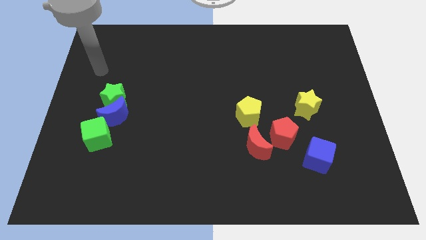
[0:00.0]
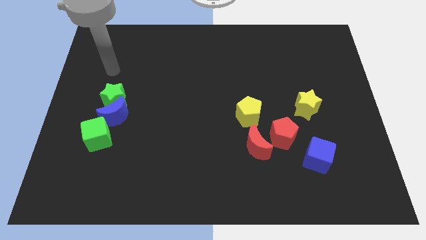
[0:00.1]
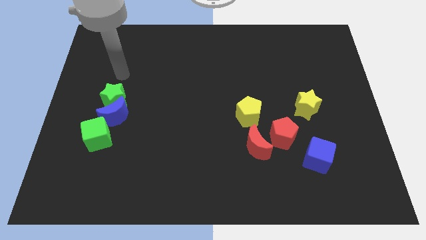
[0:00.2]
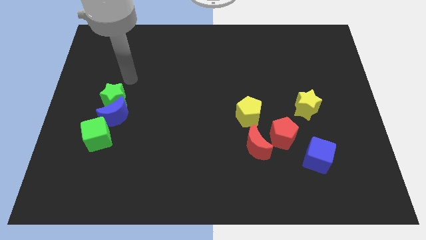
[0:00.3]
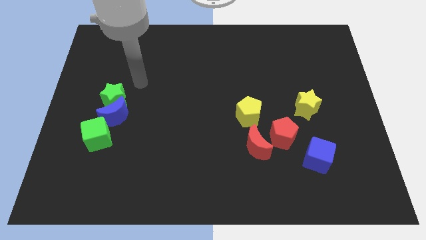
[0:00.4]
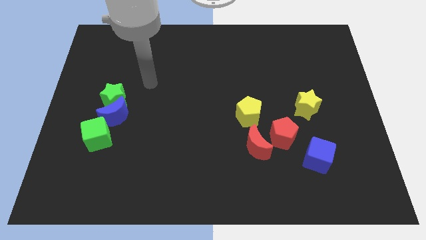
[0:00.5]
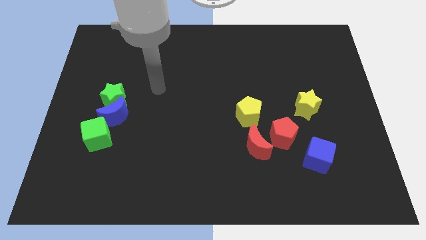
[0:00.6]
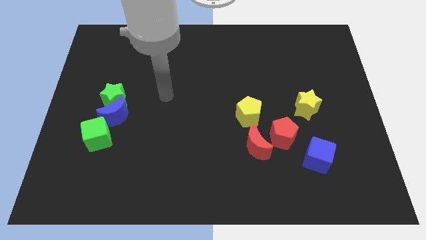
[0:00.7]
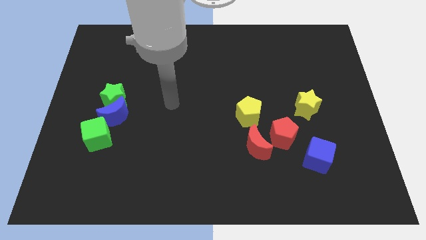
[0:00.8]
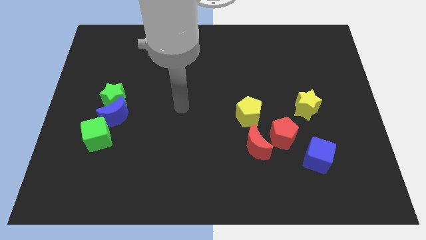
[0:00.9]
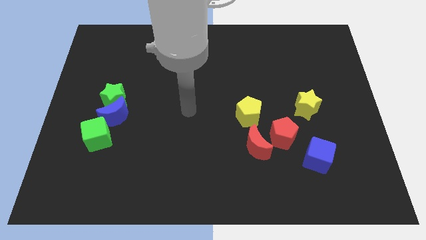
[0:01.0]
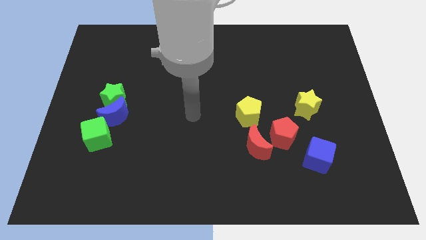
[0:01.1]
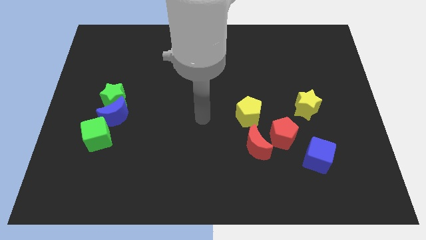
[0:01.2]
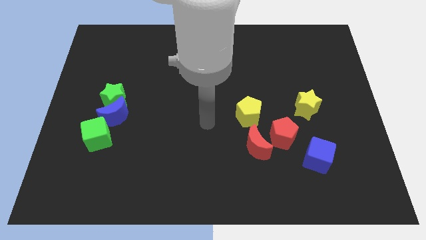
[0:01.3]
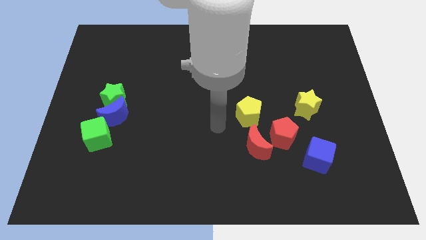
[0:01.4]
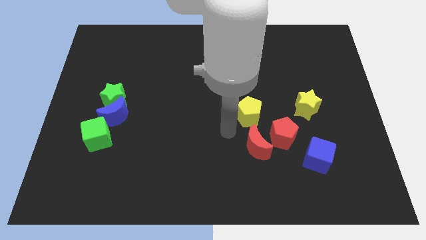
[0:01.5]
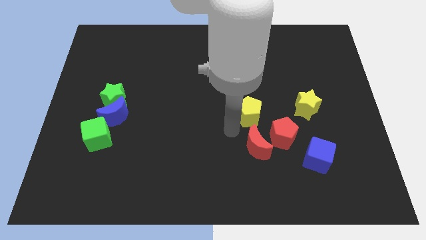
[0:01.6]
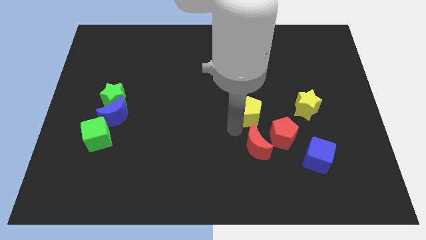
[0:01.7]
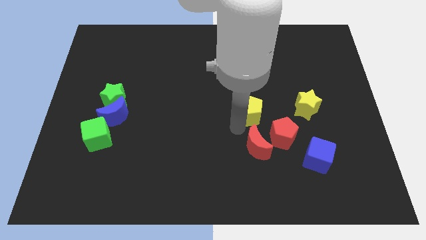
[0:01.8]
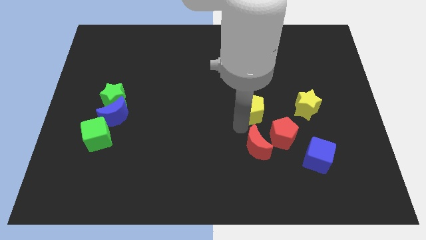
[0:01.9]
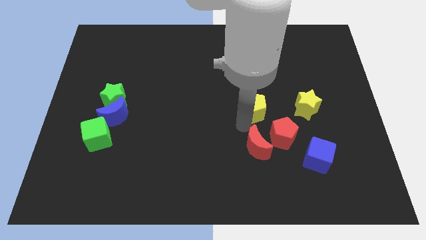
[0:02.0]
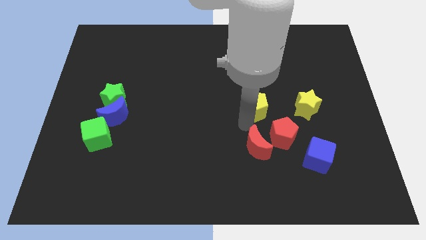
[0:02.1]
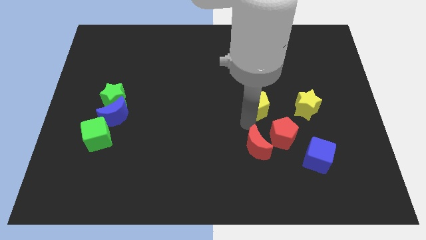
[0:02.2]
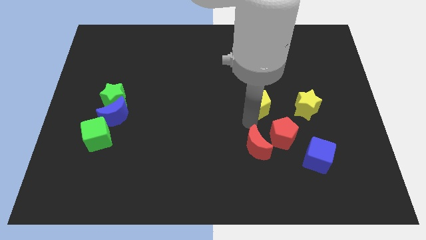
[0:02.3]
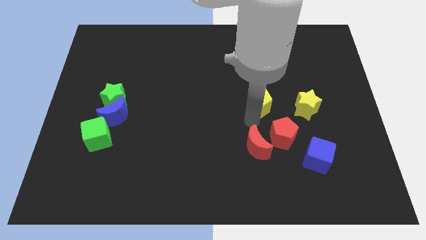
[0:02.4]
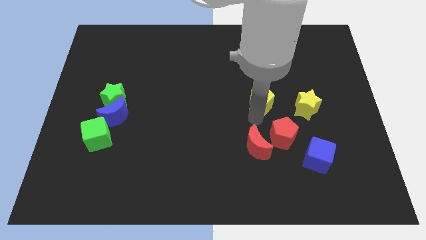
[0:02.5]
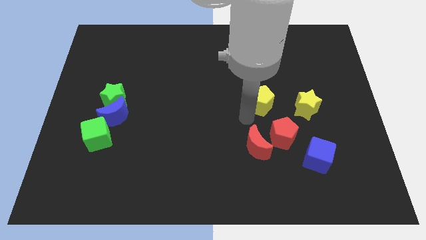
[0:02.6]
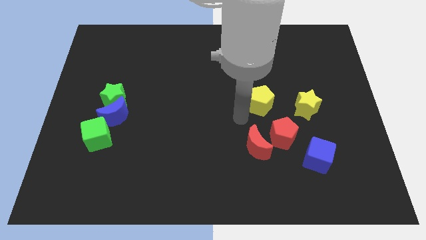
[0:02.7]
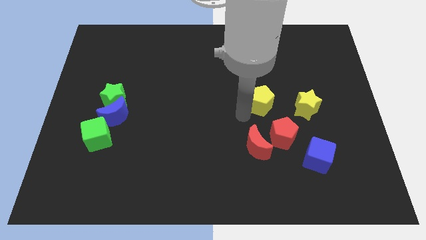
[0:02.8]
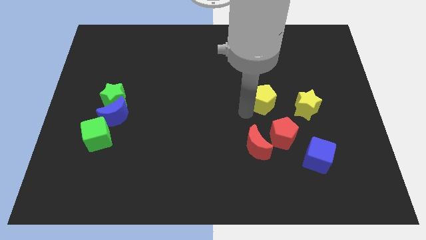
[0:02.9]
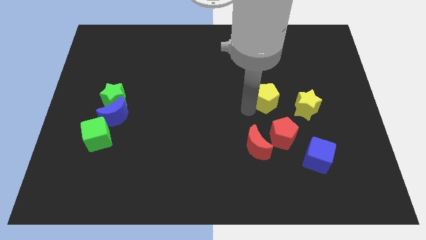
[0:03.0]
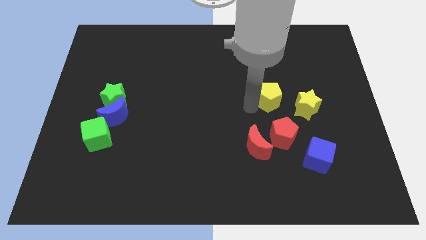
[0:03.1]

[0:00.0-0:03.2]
slightly move the yellow pentagon upwards and right diagonally

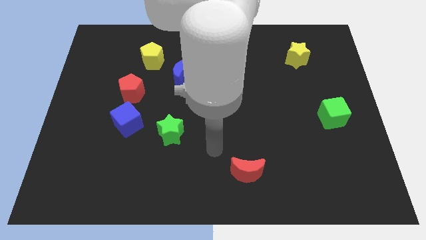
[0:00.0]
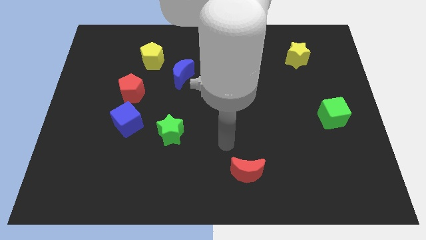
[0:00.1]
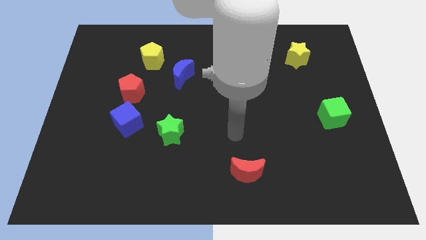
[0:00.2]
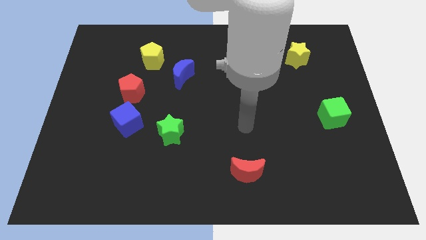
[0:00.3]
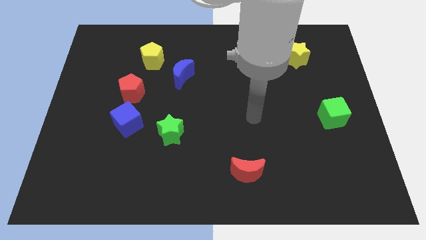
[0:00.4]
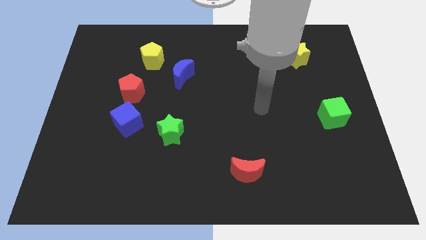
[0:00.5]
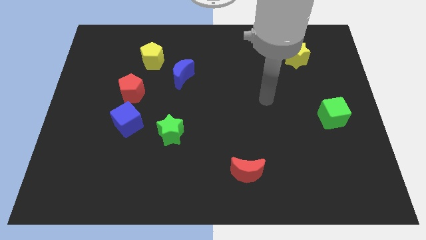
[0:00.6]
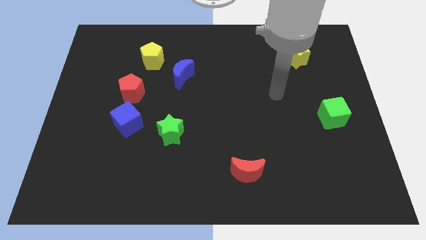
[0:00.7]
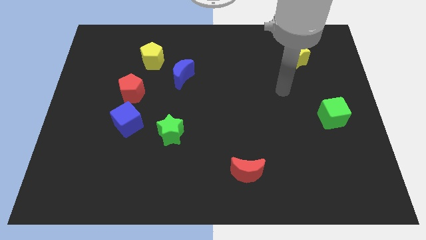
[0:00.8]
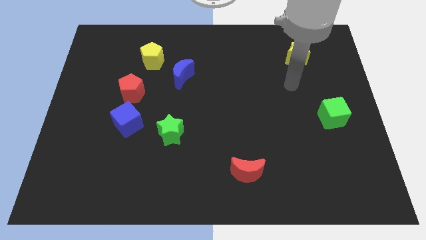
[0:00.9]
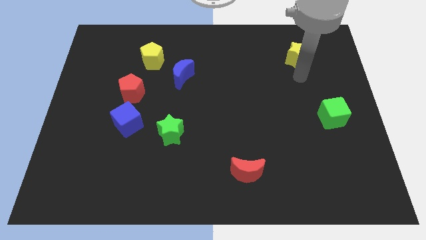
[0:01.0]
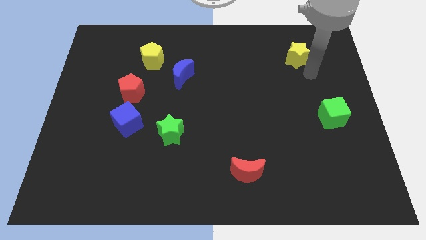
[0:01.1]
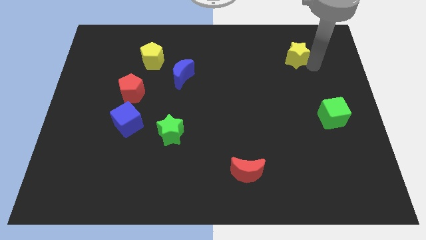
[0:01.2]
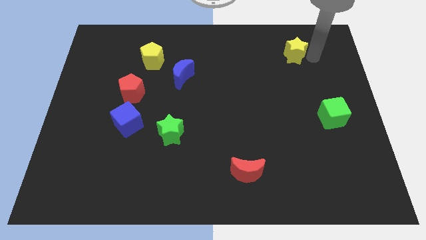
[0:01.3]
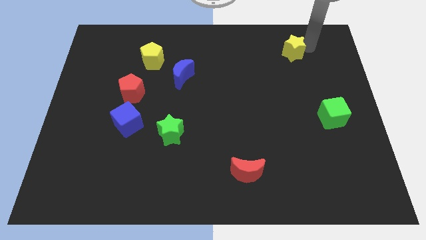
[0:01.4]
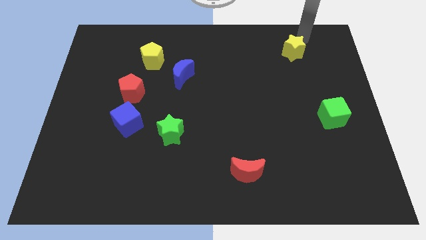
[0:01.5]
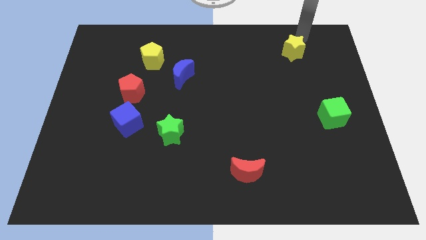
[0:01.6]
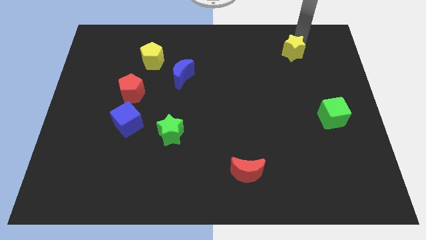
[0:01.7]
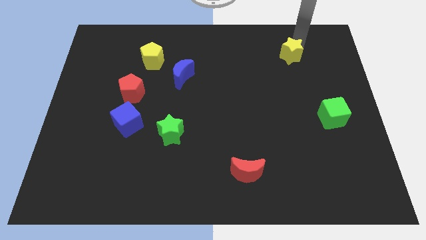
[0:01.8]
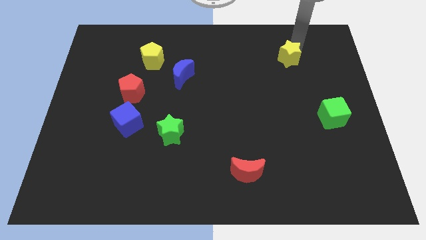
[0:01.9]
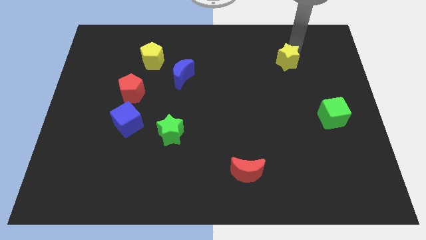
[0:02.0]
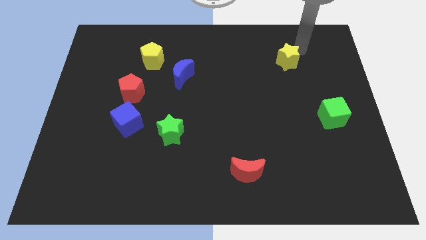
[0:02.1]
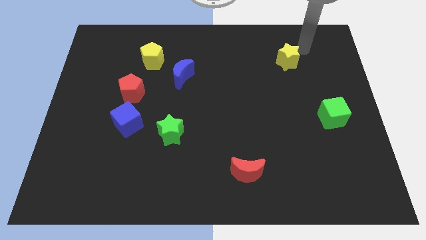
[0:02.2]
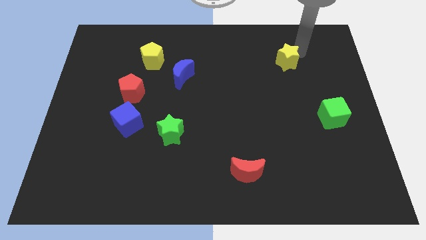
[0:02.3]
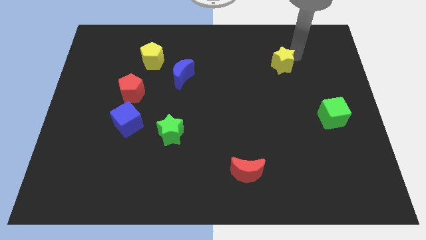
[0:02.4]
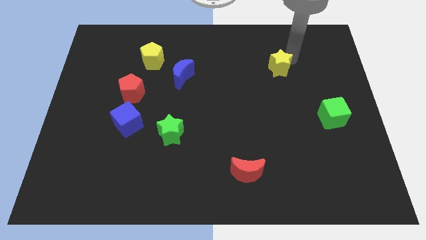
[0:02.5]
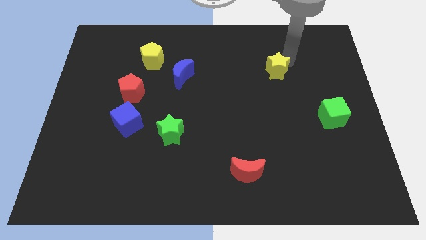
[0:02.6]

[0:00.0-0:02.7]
move the yellow star diagonally down and to the left a little

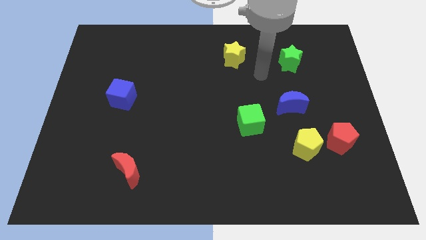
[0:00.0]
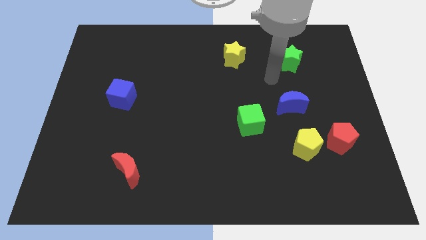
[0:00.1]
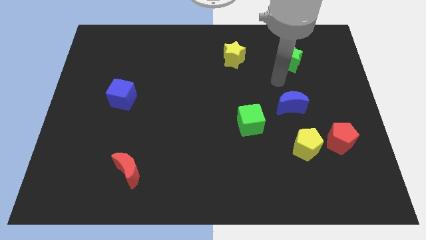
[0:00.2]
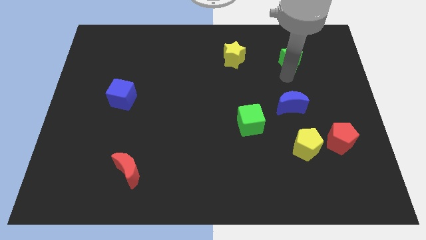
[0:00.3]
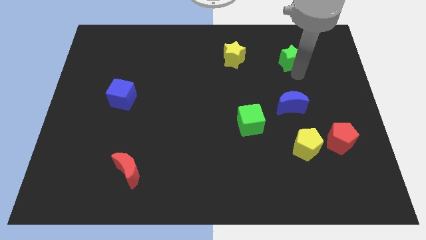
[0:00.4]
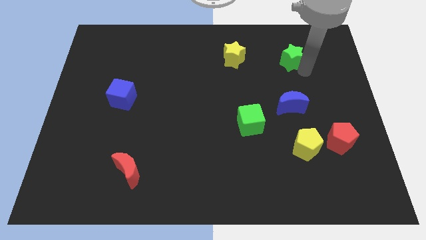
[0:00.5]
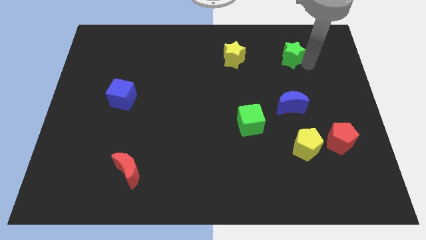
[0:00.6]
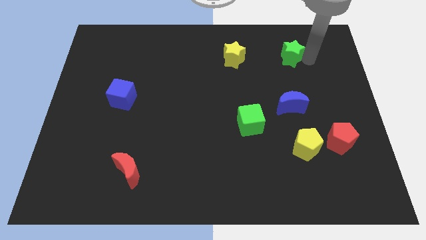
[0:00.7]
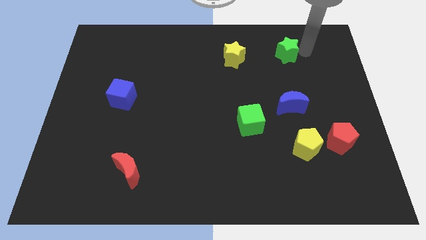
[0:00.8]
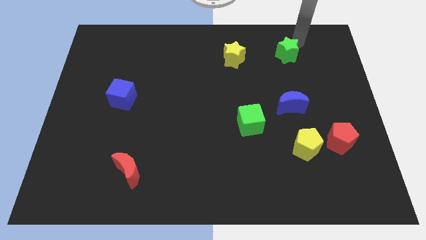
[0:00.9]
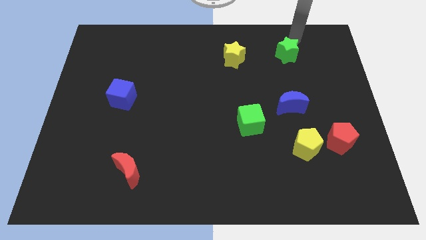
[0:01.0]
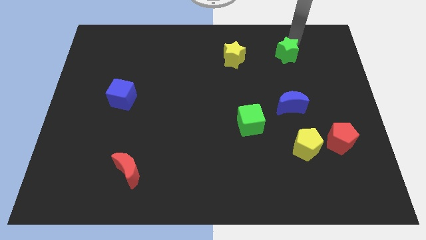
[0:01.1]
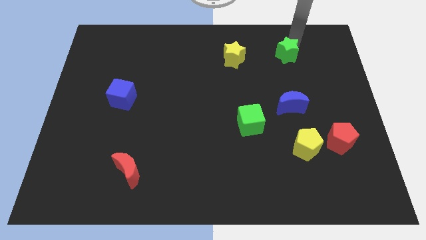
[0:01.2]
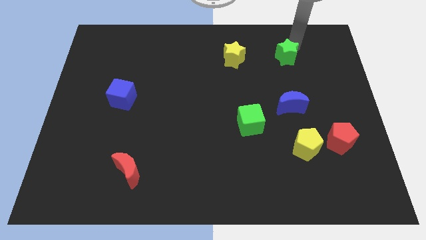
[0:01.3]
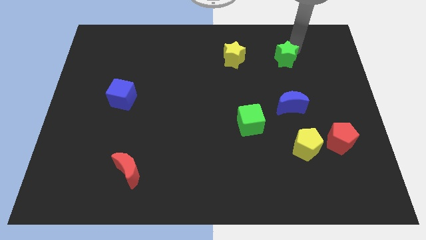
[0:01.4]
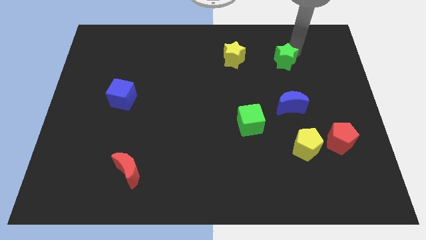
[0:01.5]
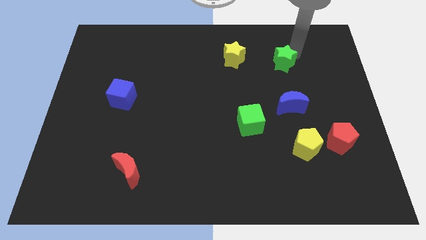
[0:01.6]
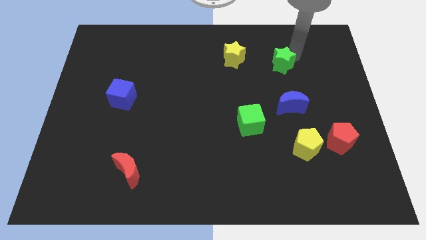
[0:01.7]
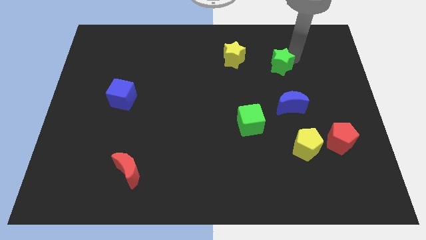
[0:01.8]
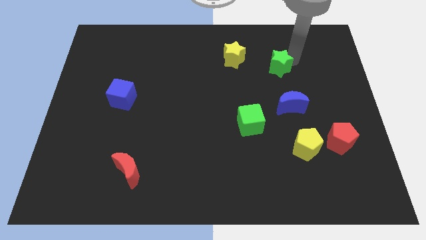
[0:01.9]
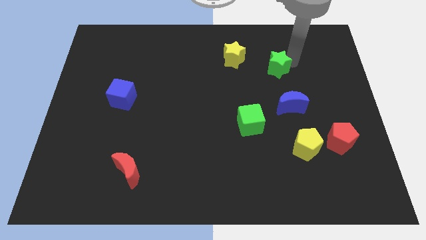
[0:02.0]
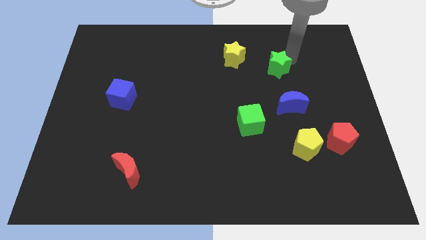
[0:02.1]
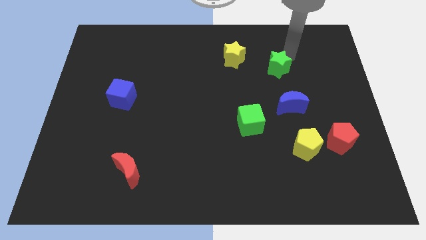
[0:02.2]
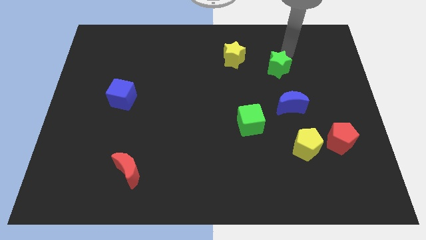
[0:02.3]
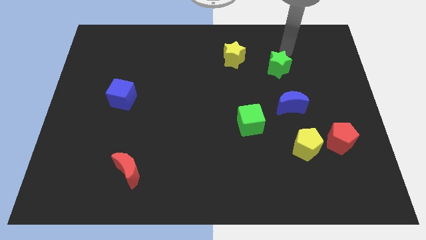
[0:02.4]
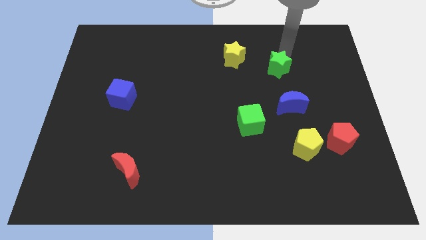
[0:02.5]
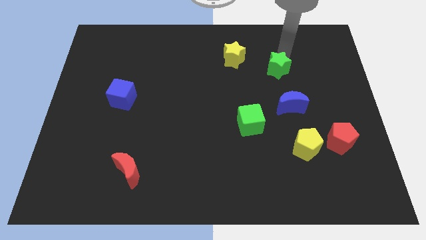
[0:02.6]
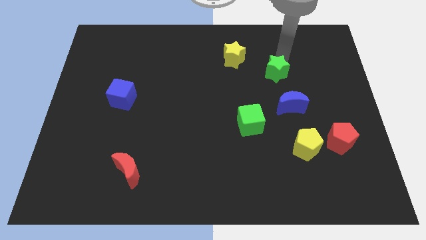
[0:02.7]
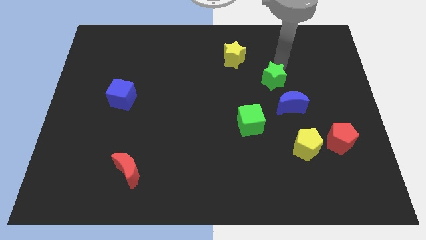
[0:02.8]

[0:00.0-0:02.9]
push the green star down and left diagonally a little bit
